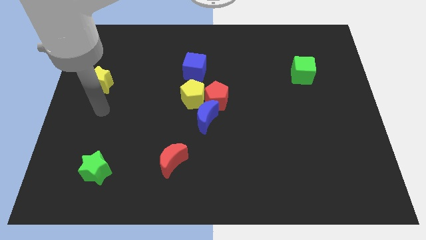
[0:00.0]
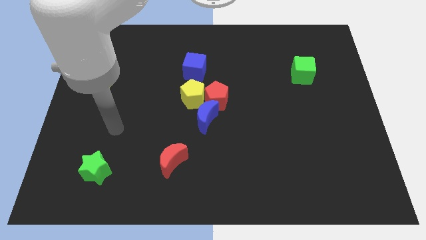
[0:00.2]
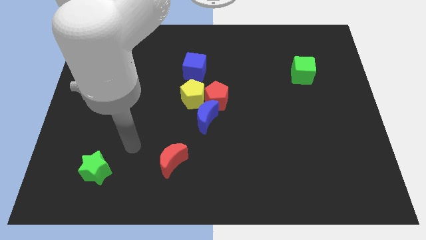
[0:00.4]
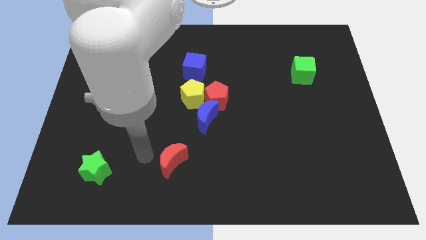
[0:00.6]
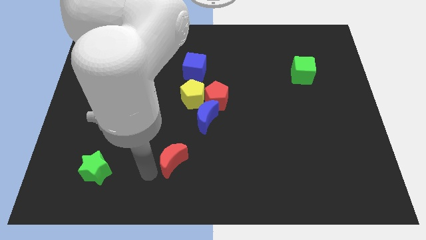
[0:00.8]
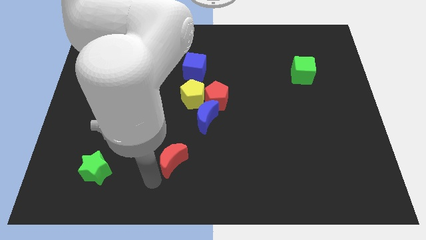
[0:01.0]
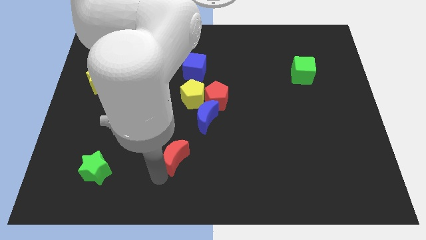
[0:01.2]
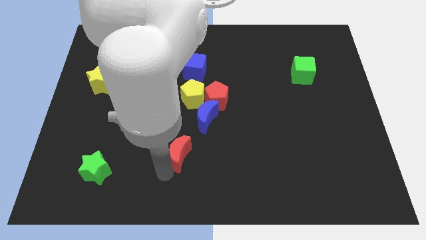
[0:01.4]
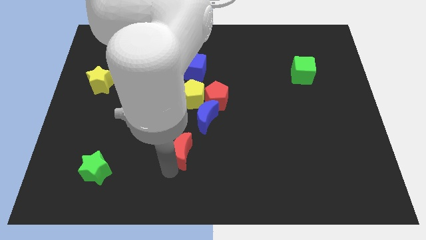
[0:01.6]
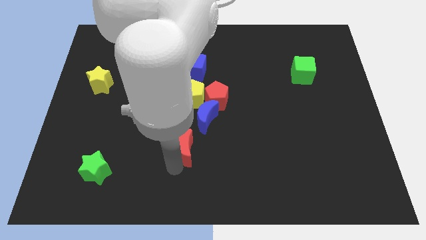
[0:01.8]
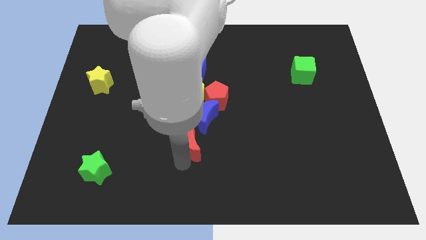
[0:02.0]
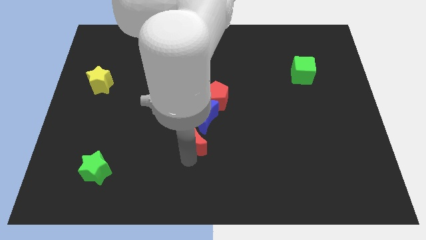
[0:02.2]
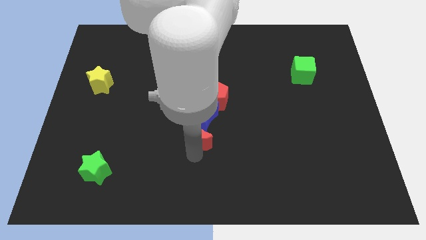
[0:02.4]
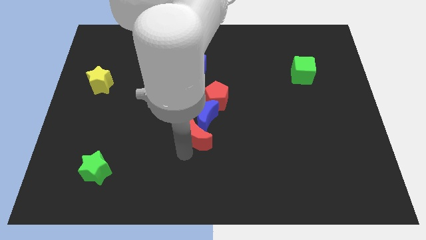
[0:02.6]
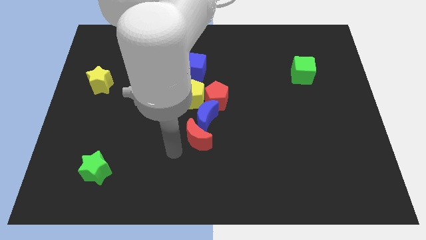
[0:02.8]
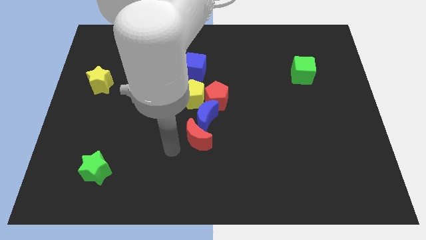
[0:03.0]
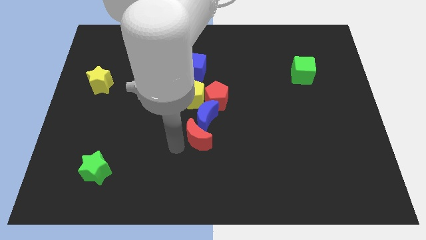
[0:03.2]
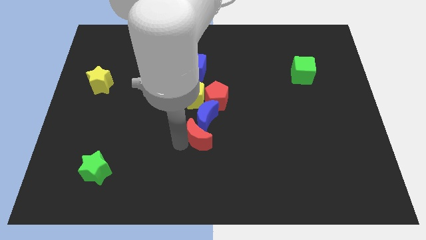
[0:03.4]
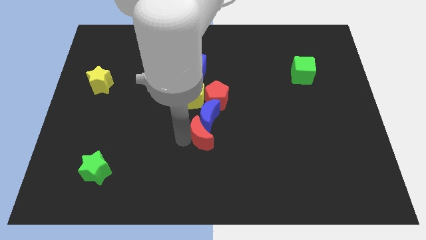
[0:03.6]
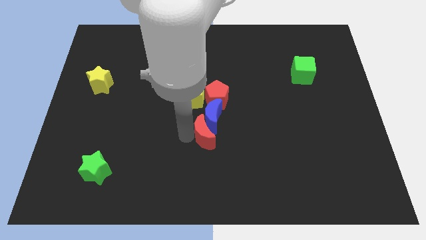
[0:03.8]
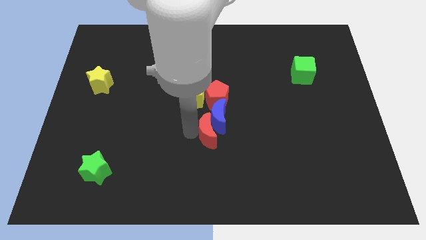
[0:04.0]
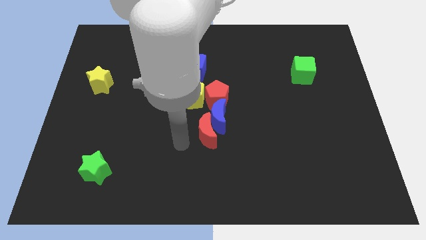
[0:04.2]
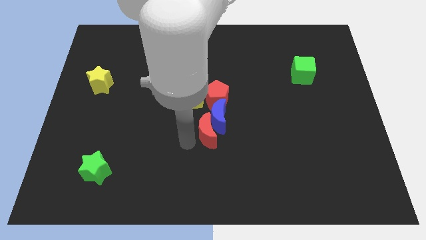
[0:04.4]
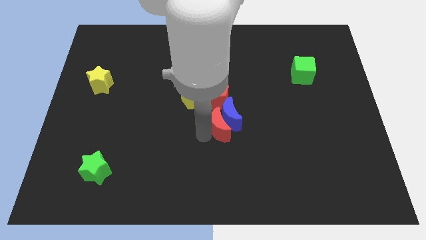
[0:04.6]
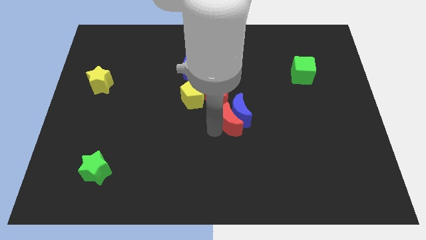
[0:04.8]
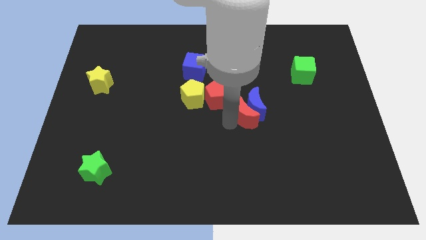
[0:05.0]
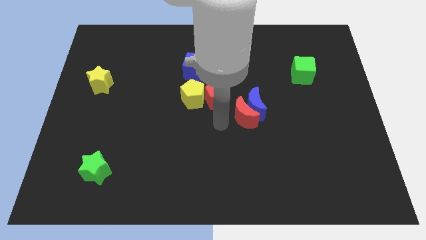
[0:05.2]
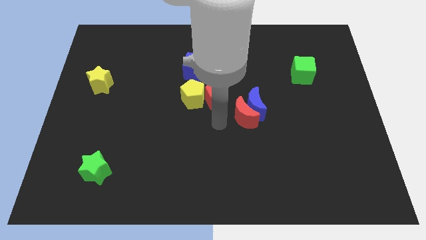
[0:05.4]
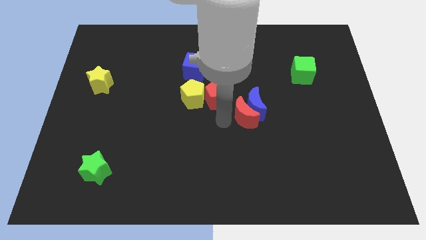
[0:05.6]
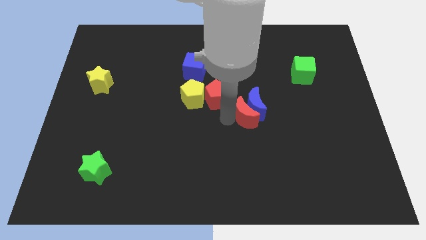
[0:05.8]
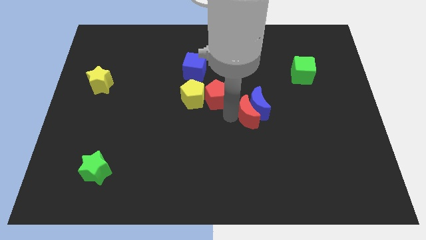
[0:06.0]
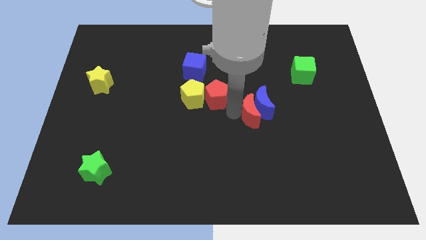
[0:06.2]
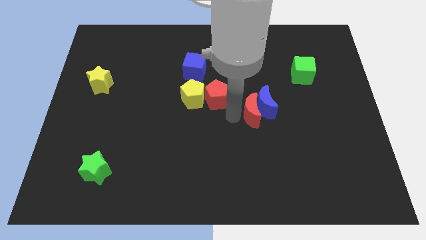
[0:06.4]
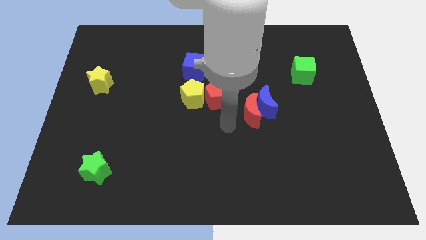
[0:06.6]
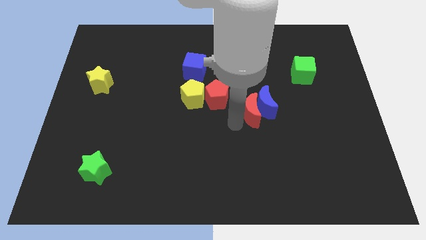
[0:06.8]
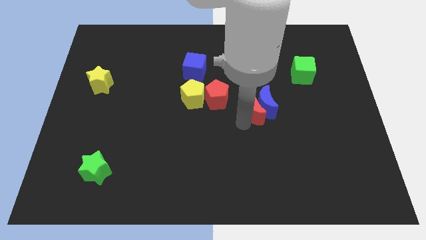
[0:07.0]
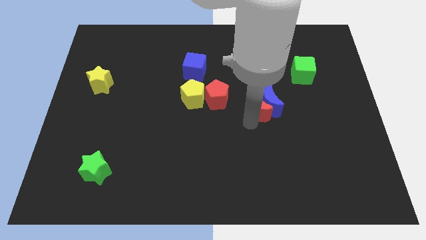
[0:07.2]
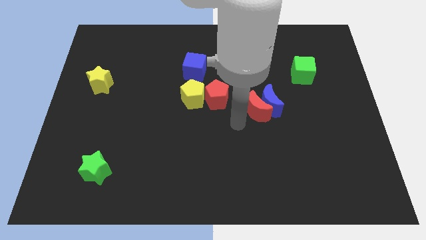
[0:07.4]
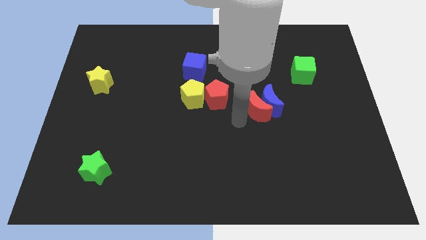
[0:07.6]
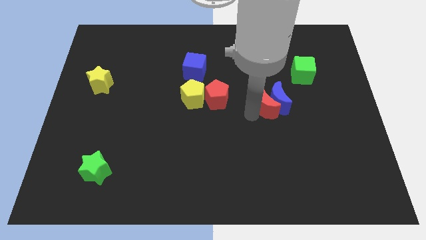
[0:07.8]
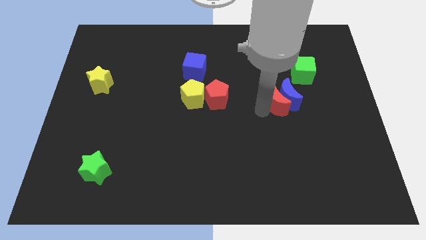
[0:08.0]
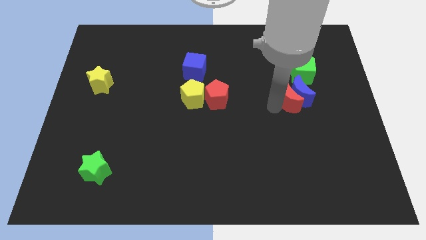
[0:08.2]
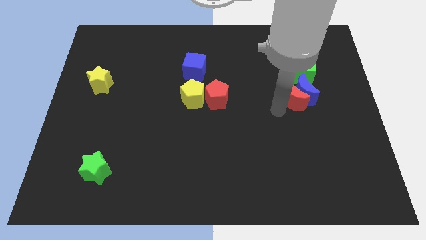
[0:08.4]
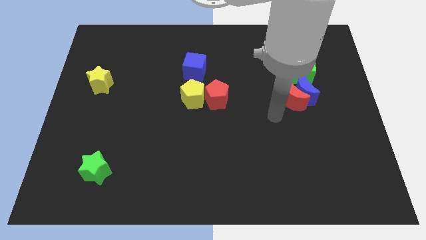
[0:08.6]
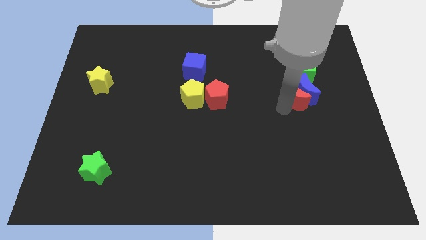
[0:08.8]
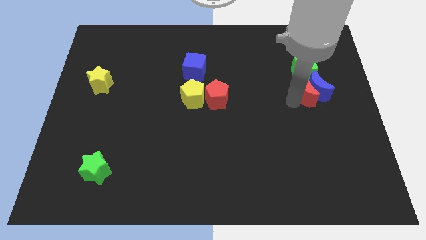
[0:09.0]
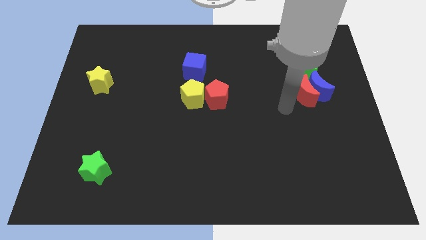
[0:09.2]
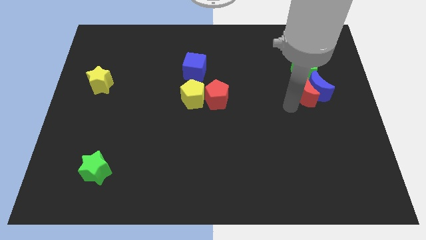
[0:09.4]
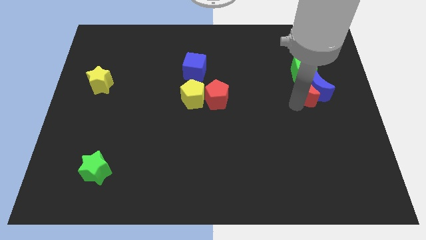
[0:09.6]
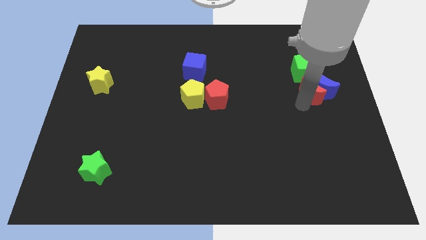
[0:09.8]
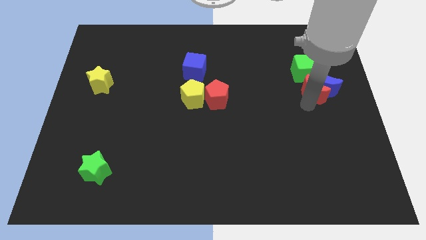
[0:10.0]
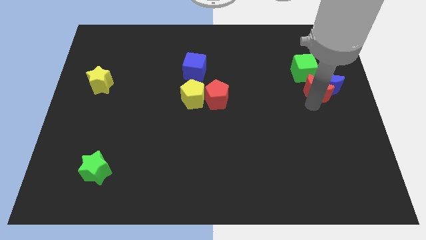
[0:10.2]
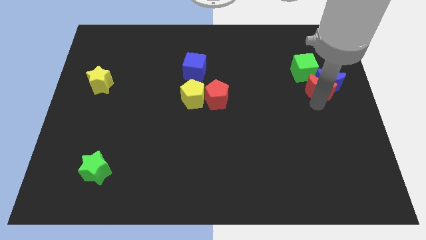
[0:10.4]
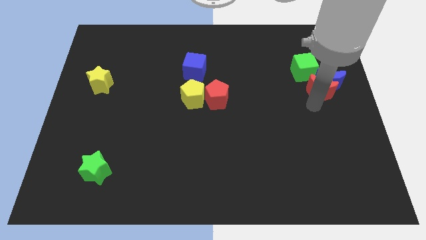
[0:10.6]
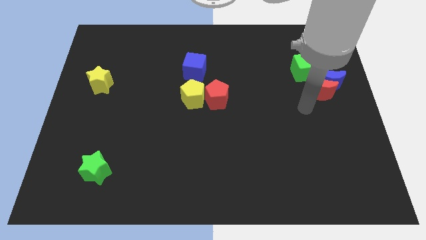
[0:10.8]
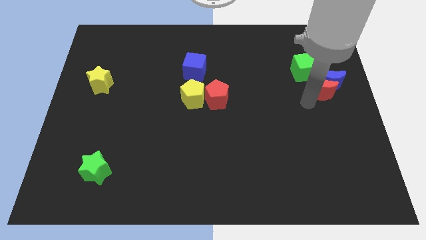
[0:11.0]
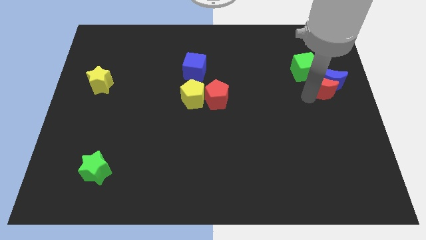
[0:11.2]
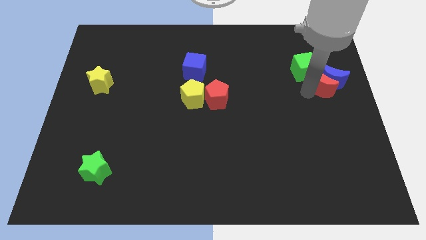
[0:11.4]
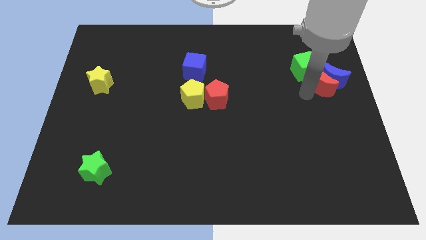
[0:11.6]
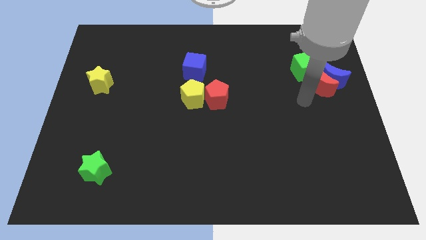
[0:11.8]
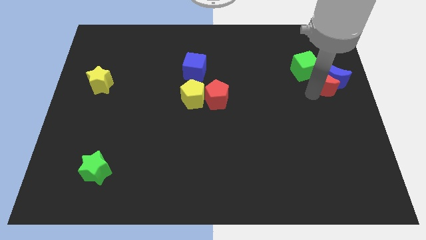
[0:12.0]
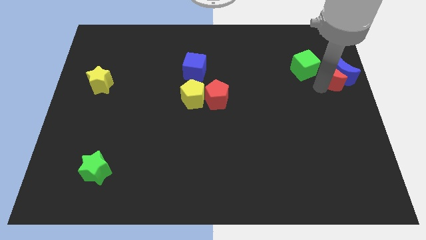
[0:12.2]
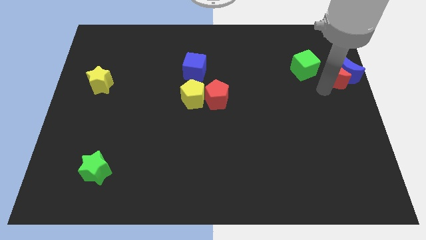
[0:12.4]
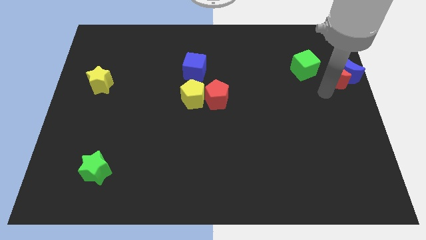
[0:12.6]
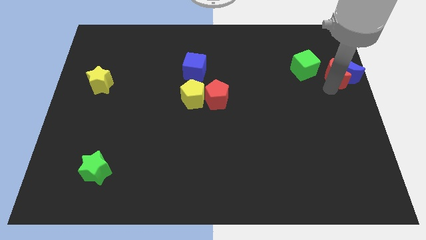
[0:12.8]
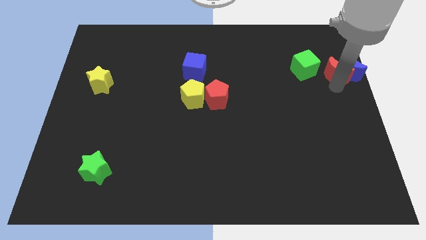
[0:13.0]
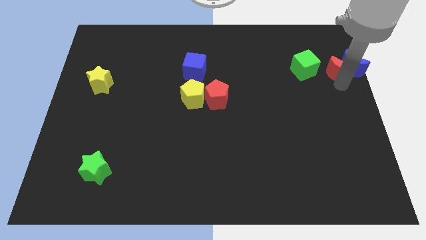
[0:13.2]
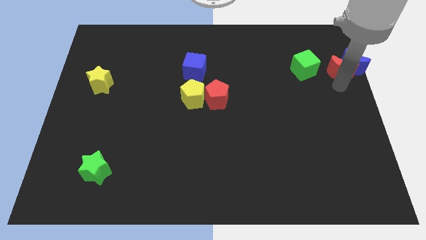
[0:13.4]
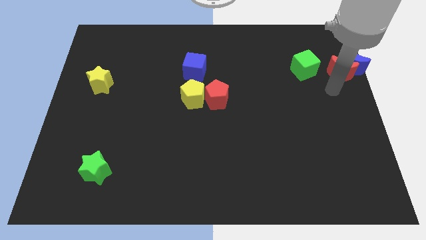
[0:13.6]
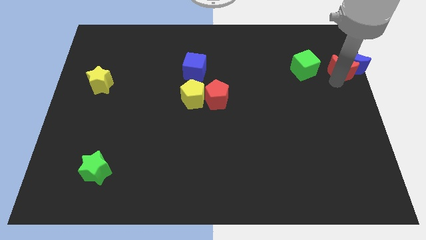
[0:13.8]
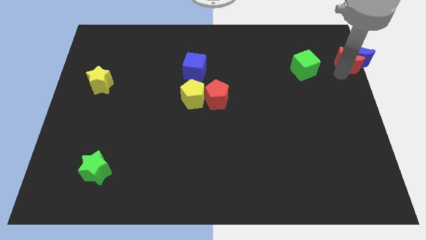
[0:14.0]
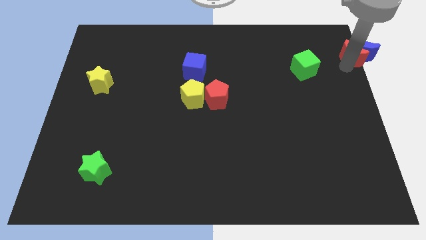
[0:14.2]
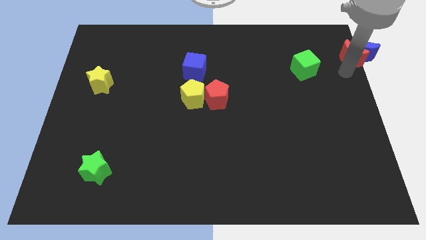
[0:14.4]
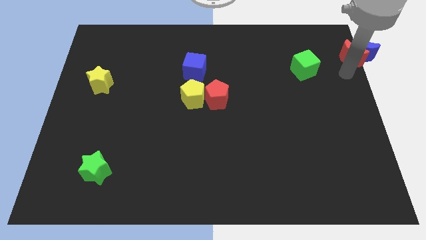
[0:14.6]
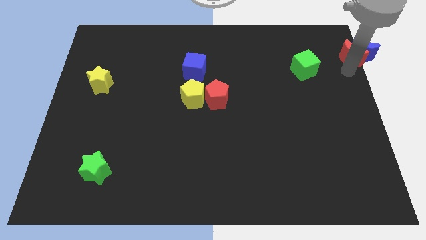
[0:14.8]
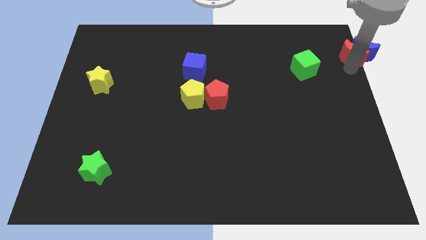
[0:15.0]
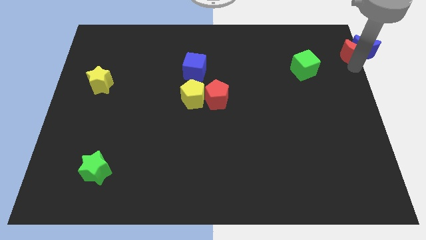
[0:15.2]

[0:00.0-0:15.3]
slide the red moon to the top right corner
